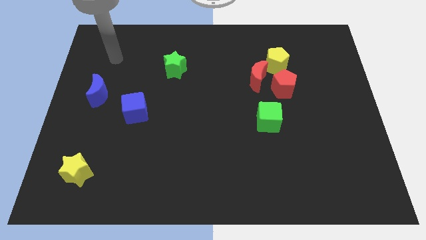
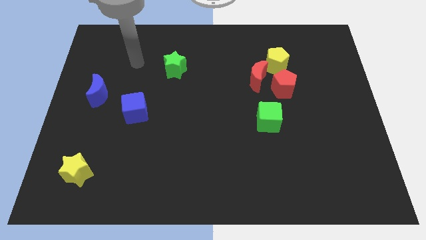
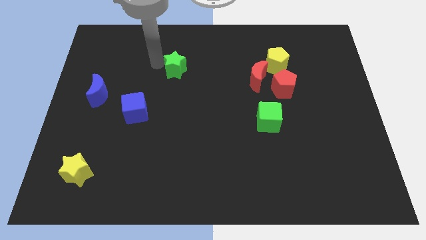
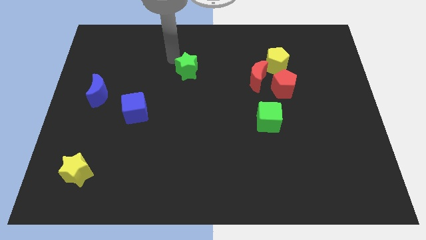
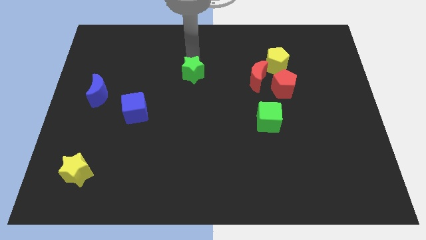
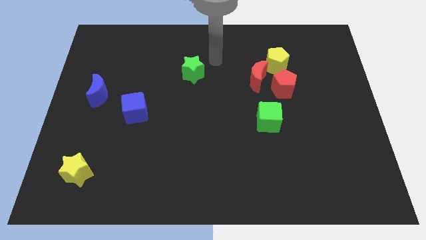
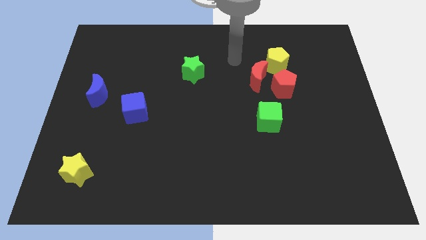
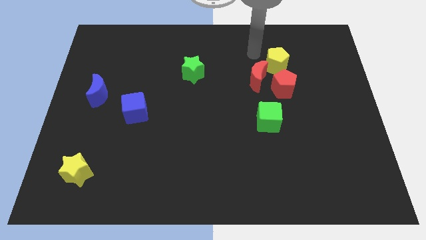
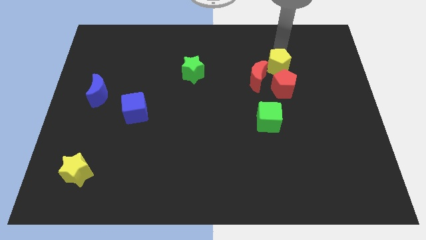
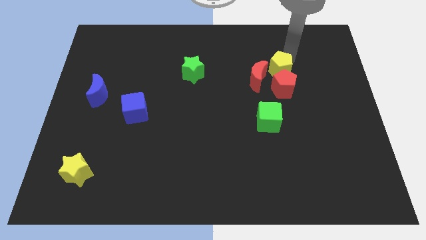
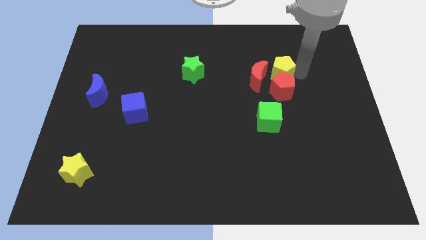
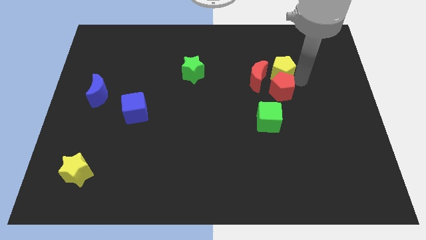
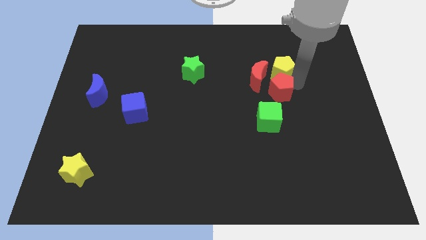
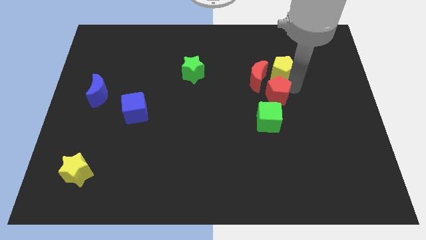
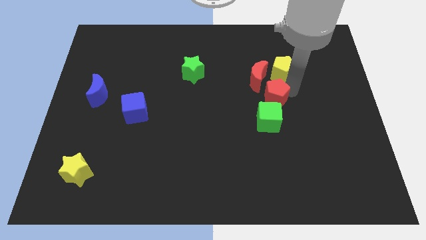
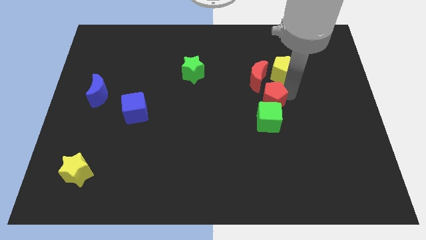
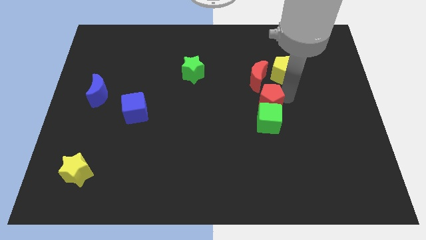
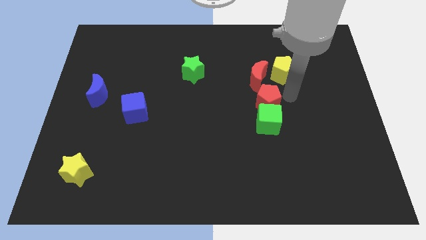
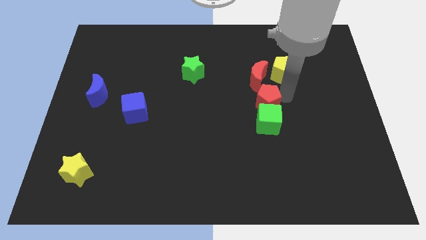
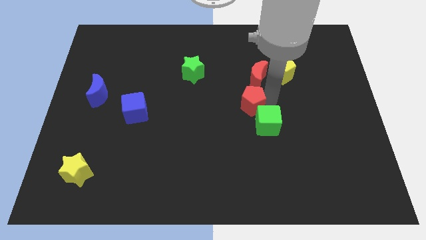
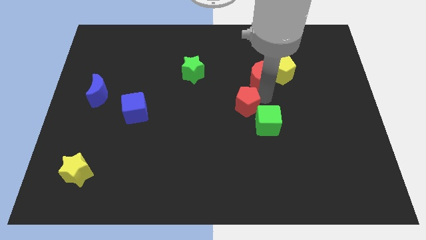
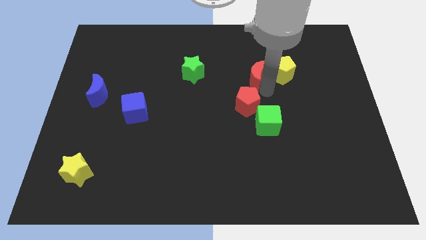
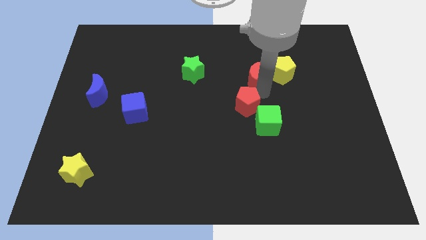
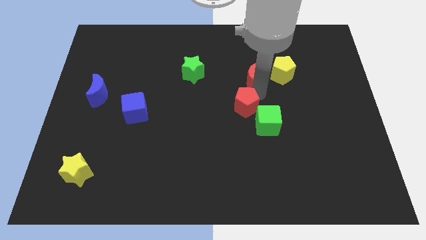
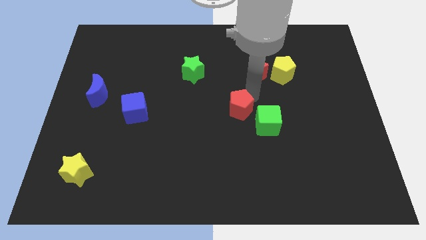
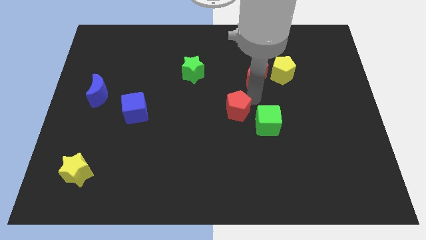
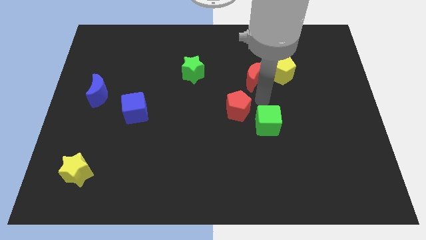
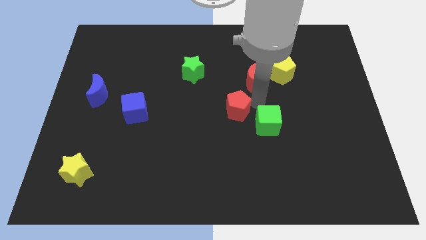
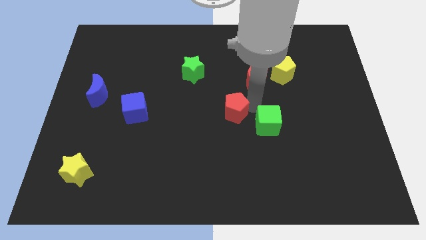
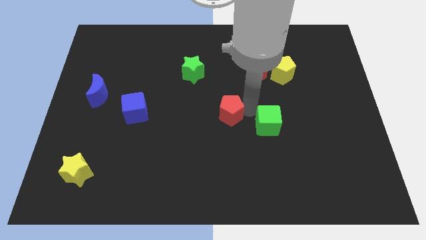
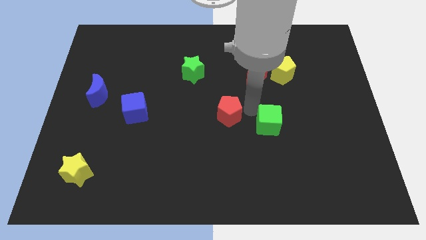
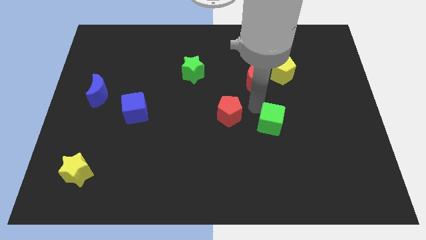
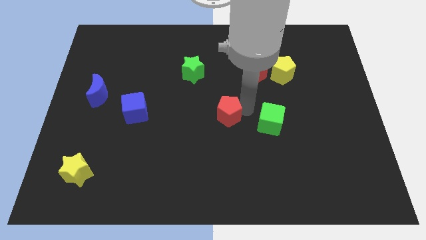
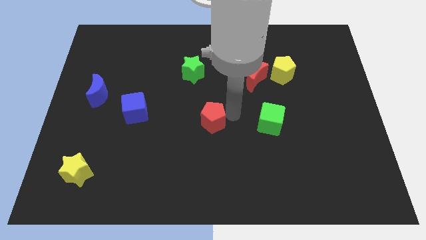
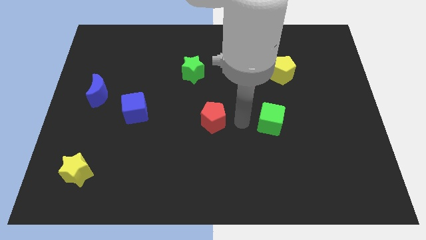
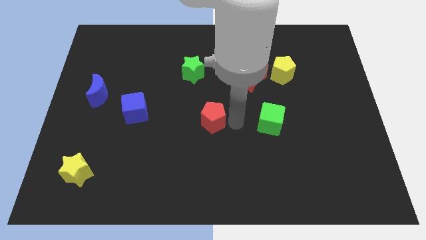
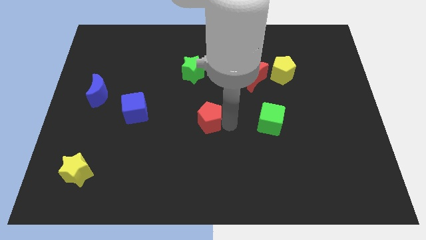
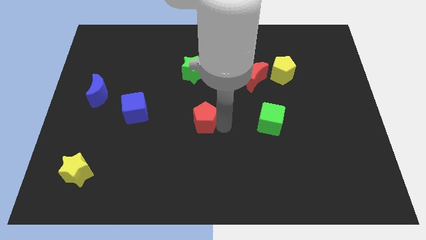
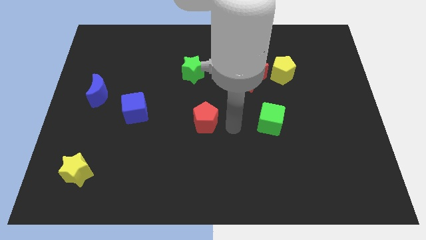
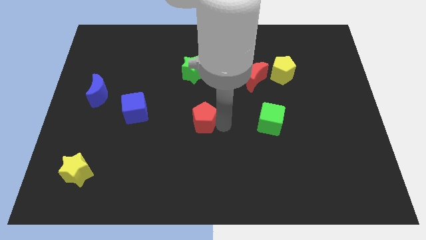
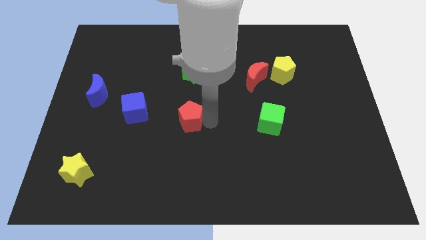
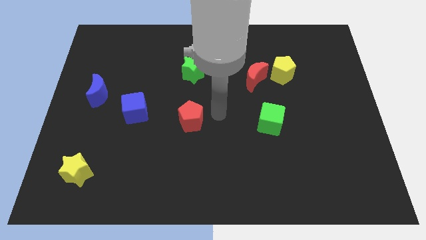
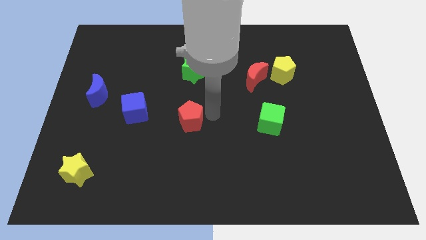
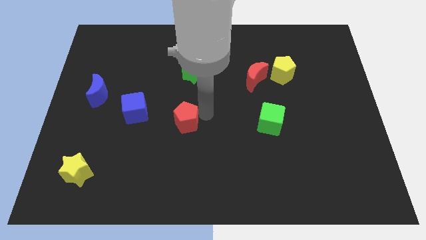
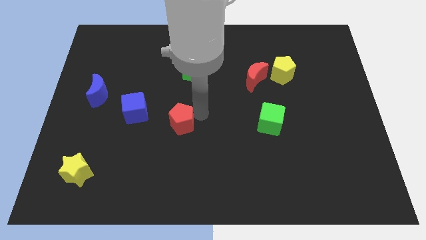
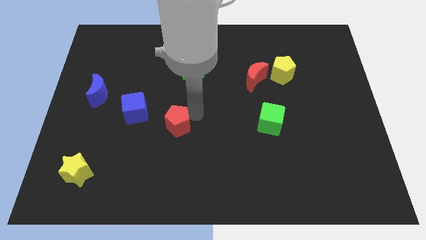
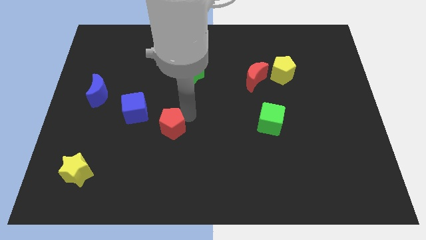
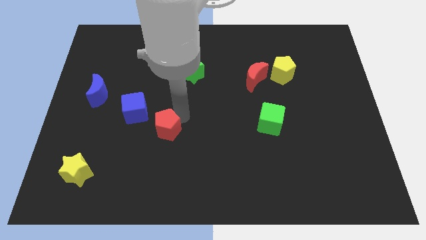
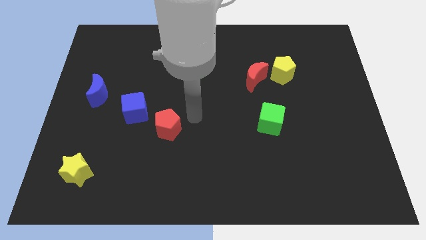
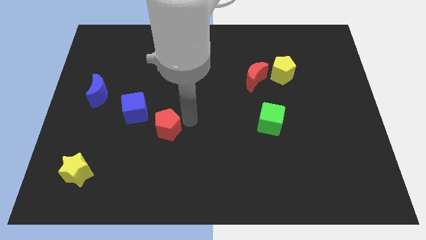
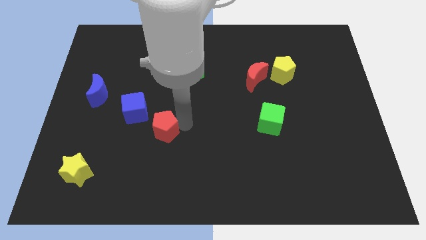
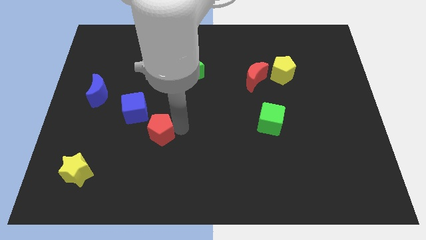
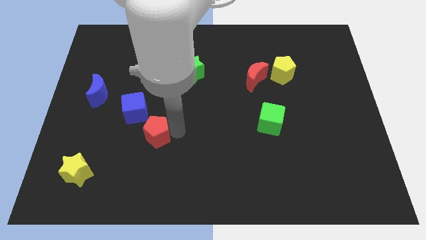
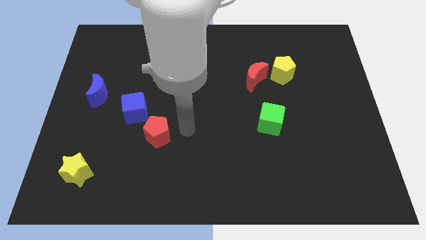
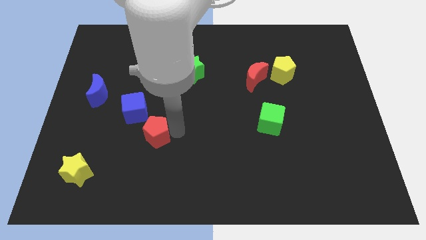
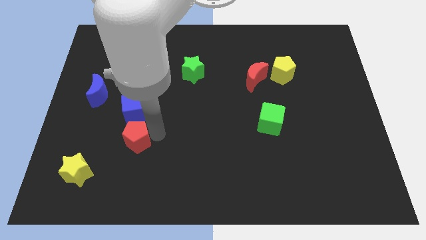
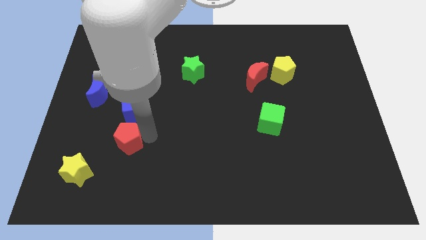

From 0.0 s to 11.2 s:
move the red pentagon diagonally up and to the right of the yellow star

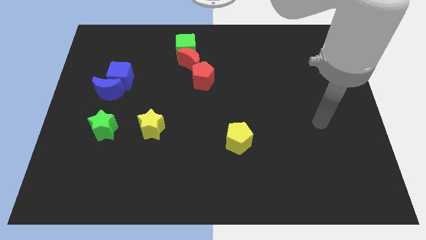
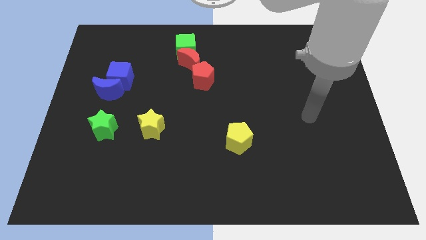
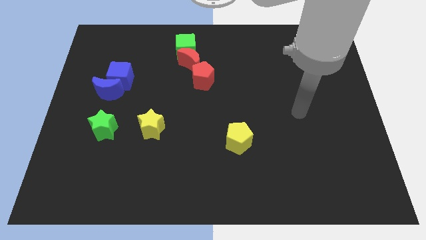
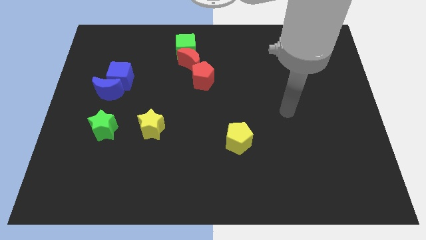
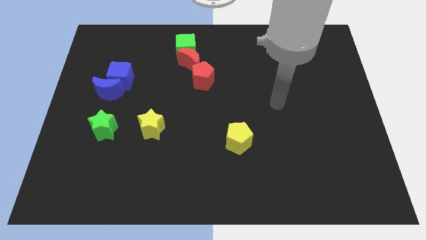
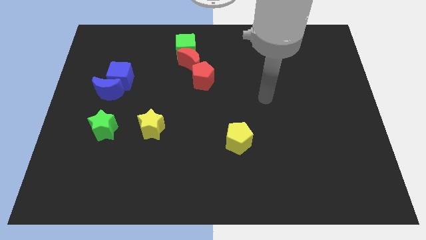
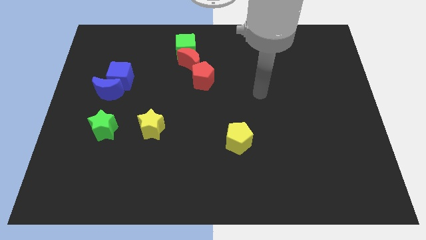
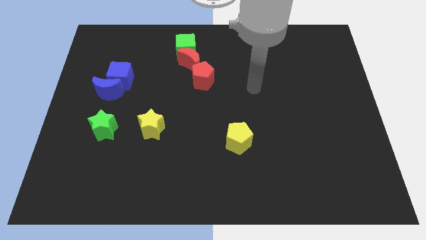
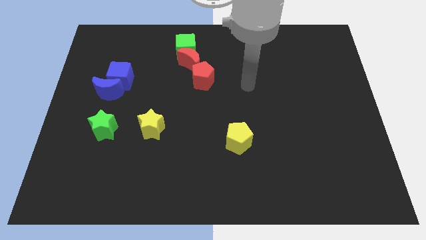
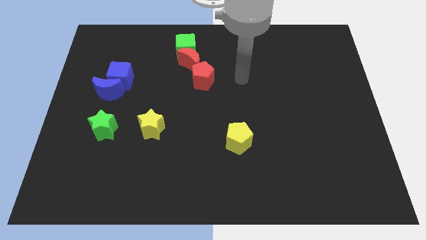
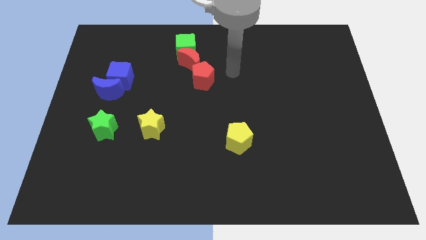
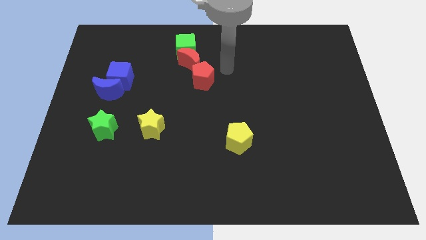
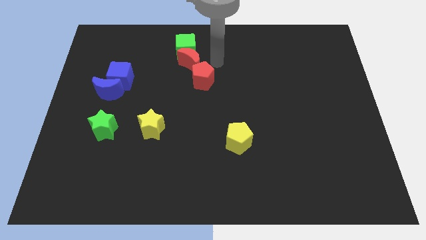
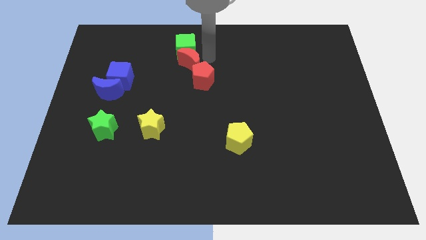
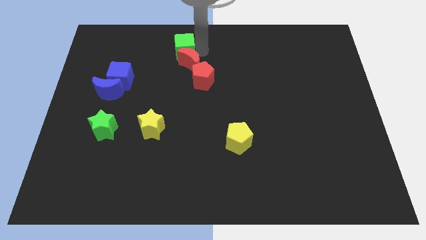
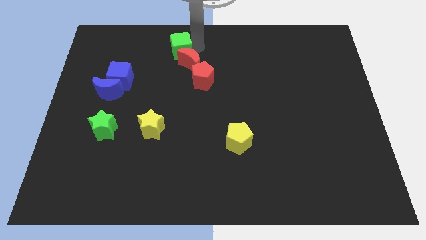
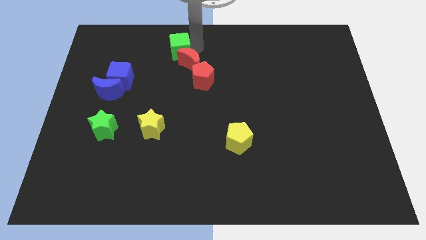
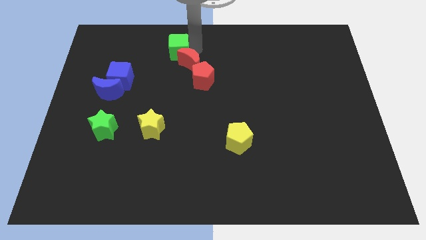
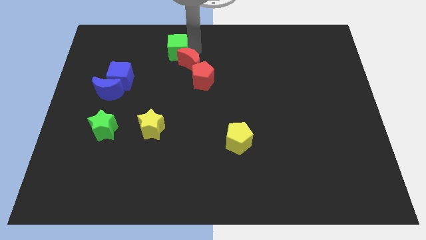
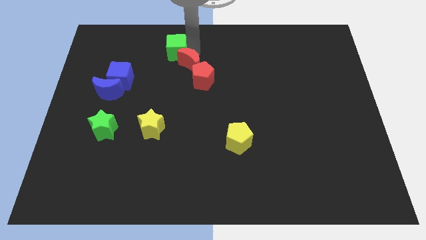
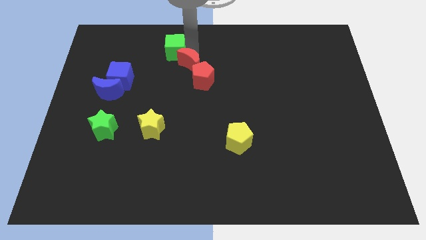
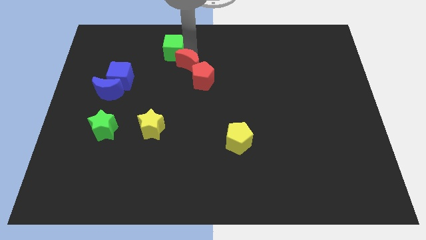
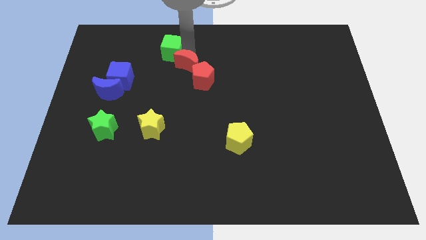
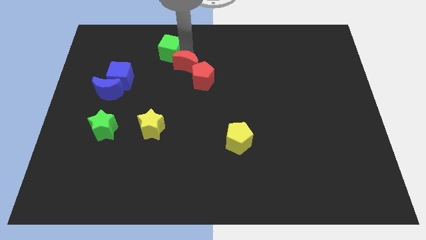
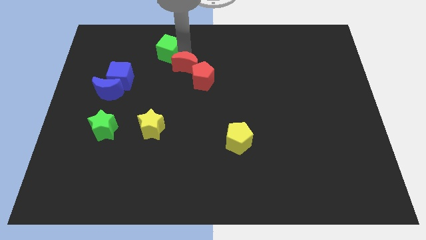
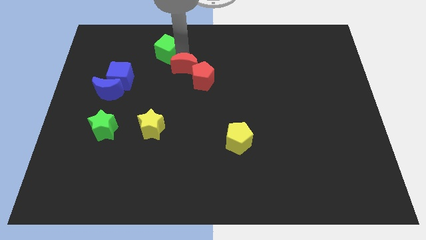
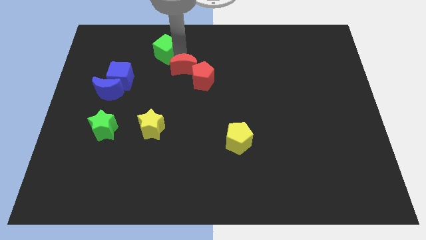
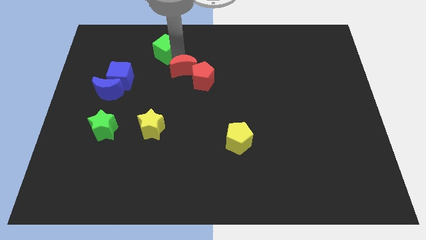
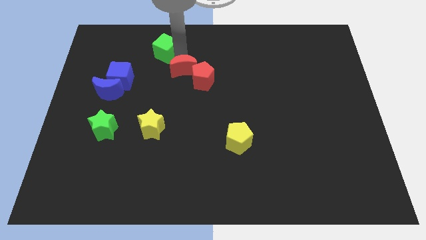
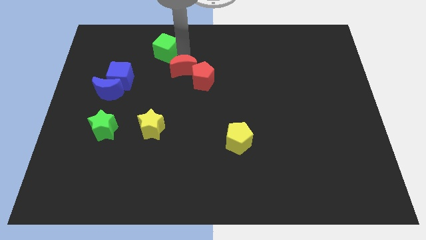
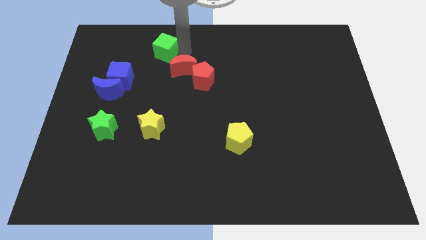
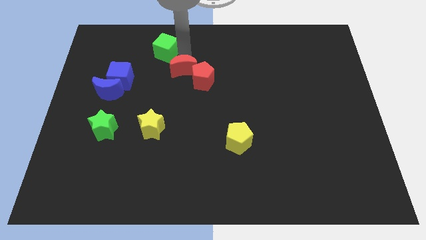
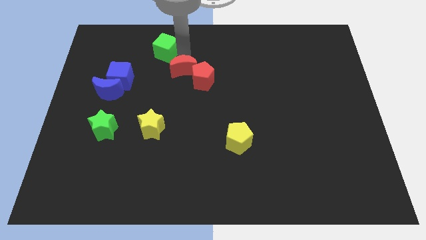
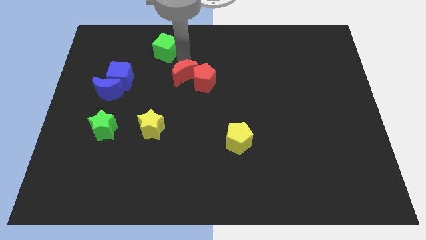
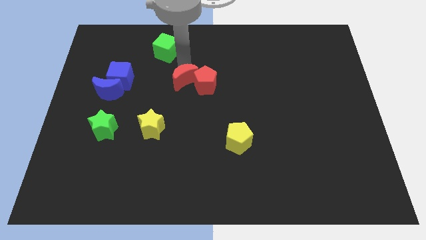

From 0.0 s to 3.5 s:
push the red moon to the bottom left side of the red pentagon
